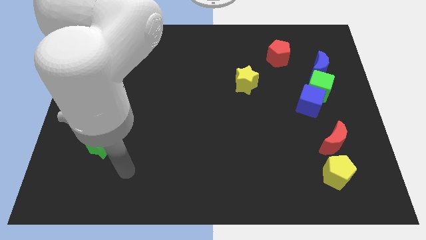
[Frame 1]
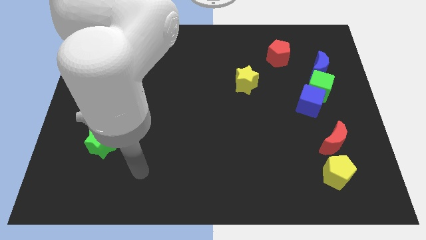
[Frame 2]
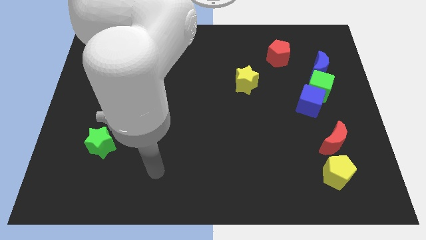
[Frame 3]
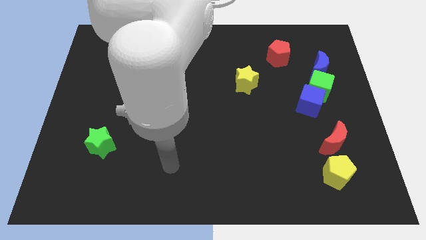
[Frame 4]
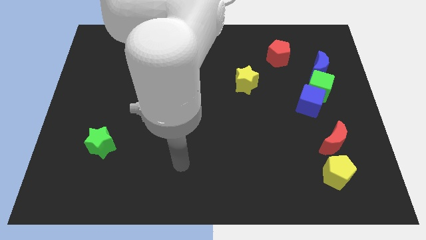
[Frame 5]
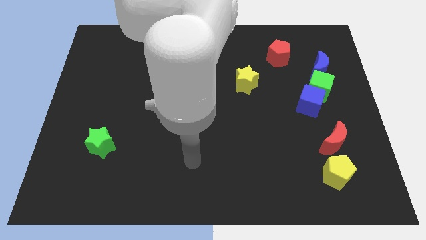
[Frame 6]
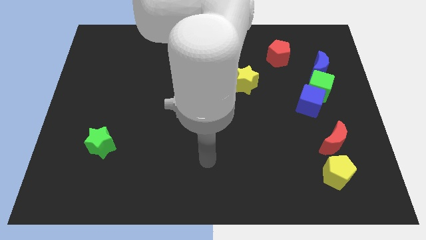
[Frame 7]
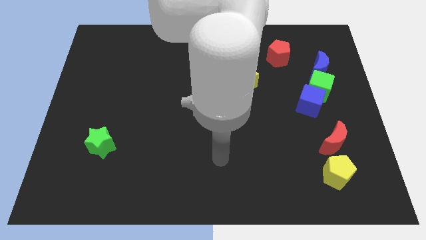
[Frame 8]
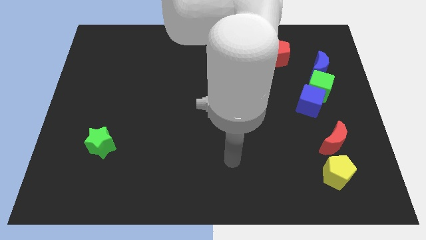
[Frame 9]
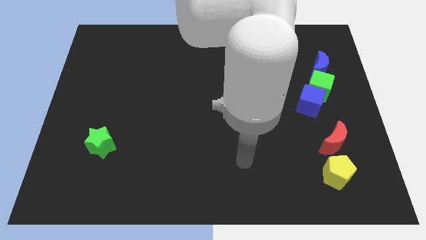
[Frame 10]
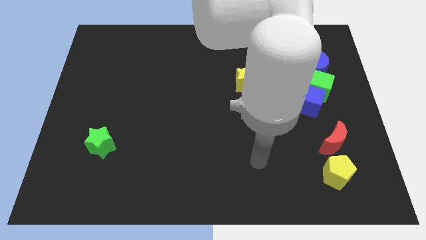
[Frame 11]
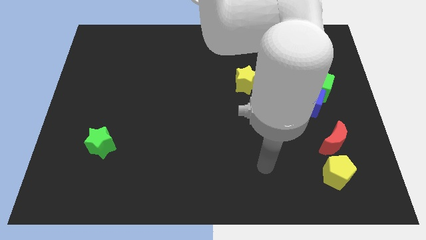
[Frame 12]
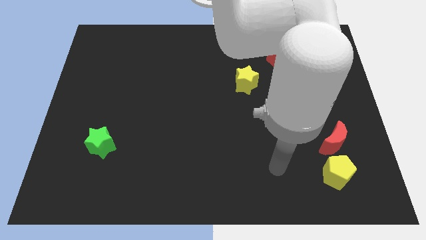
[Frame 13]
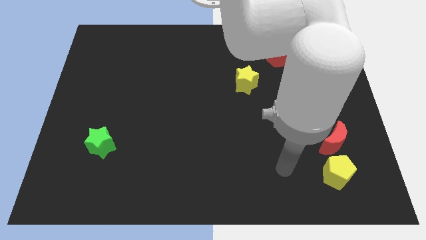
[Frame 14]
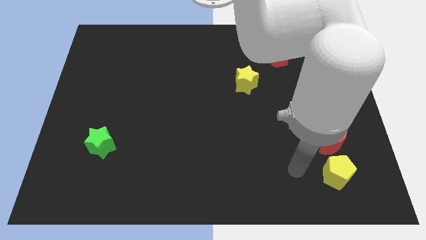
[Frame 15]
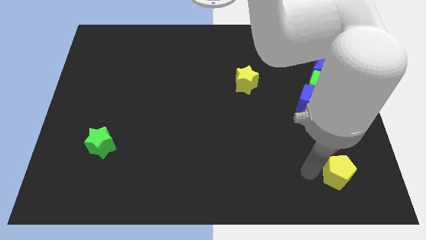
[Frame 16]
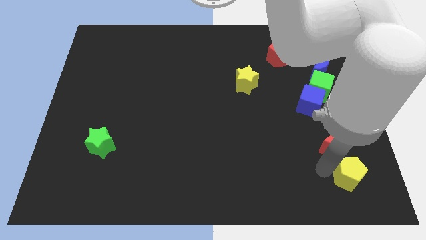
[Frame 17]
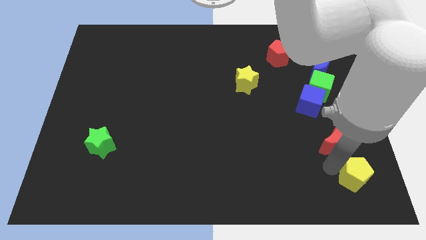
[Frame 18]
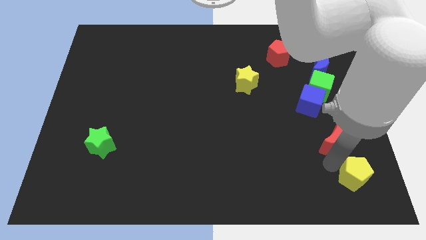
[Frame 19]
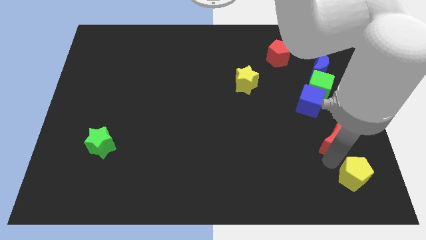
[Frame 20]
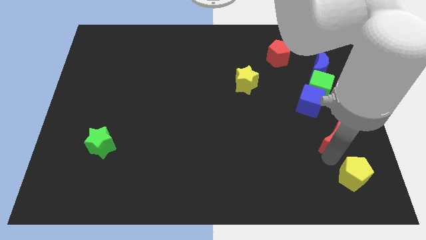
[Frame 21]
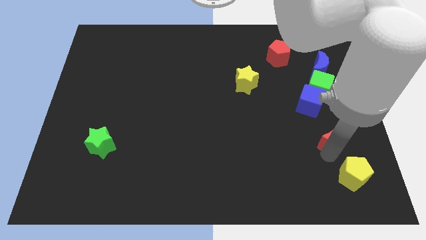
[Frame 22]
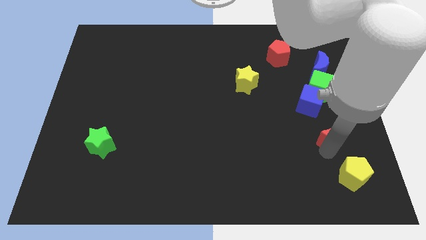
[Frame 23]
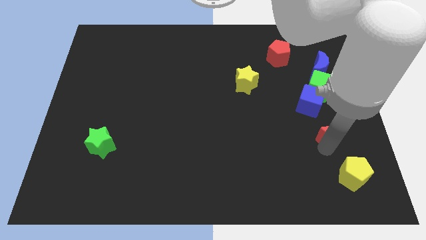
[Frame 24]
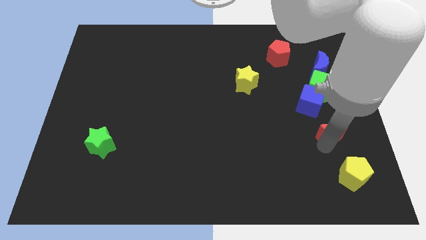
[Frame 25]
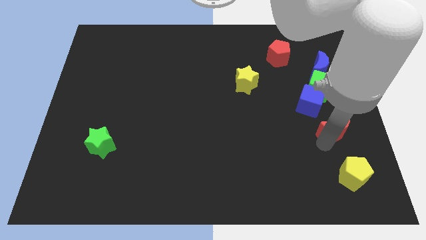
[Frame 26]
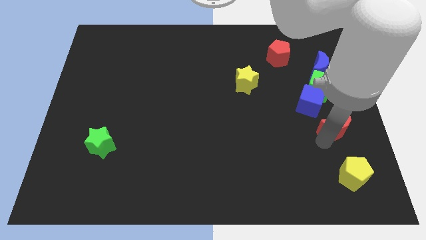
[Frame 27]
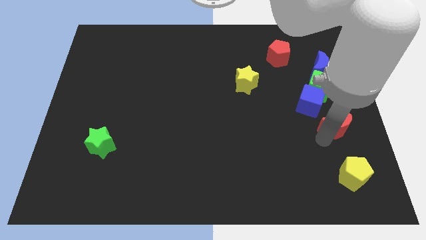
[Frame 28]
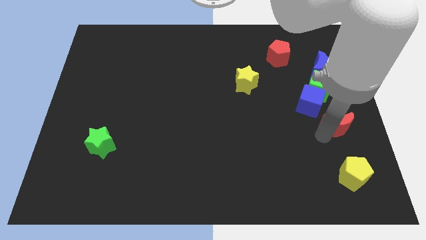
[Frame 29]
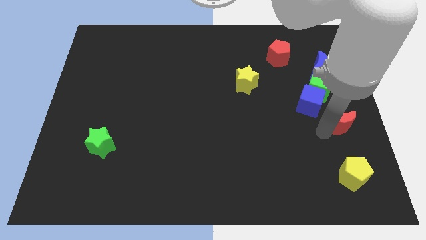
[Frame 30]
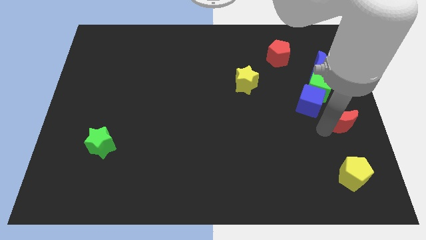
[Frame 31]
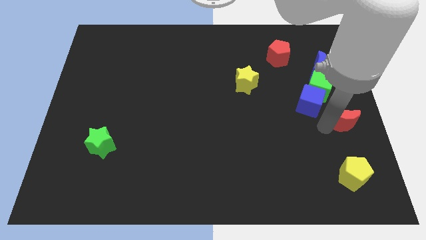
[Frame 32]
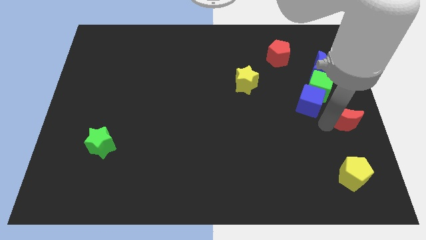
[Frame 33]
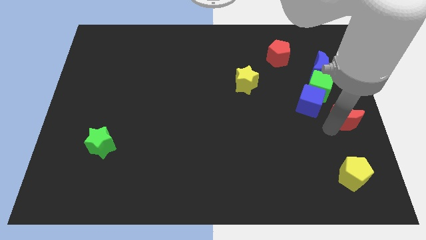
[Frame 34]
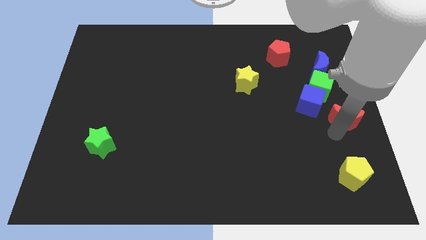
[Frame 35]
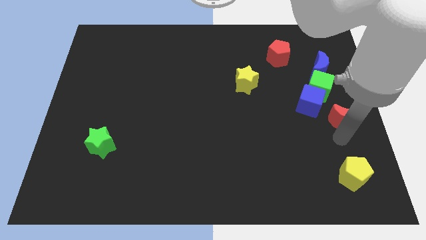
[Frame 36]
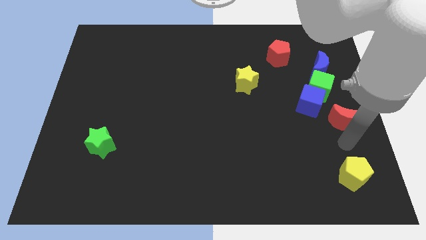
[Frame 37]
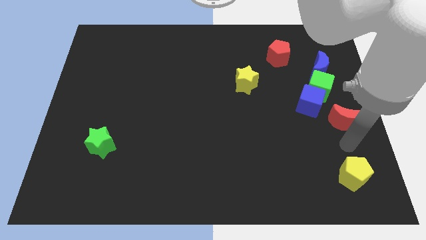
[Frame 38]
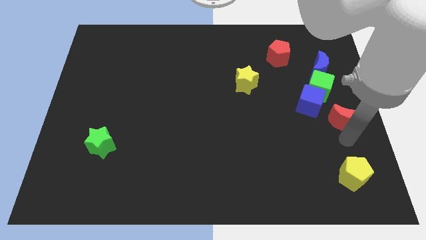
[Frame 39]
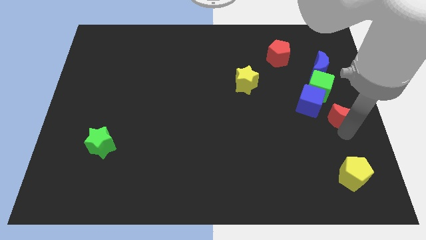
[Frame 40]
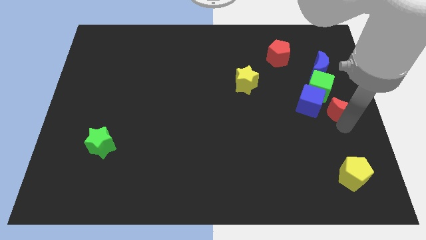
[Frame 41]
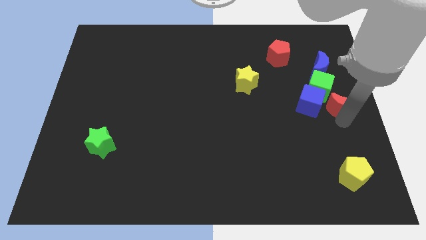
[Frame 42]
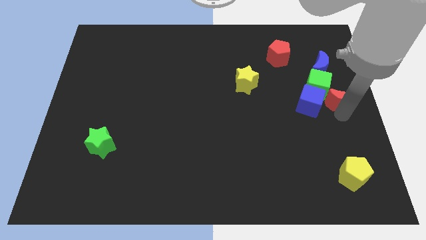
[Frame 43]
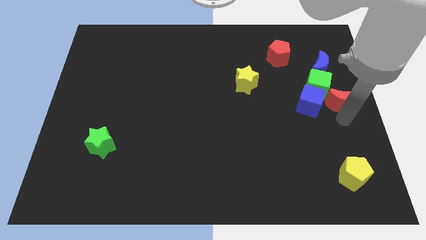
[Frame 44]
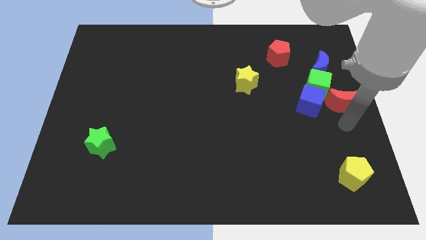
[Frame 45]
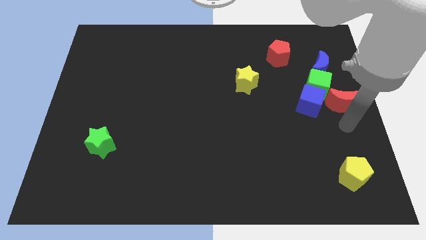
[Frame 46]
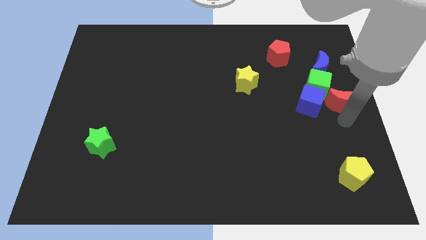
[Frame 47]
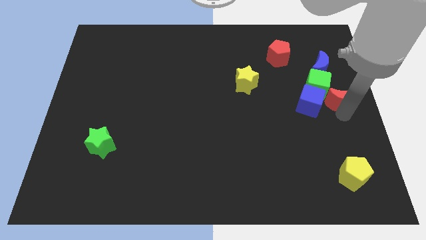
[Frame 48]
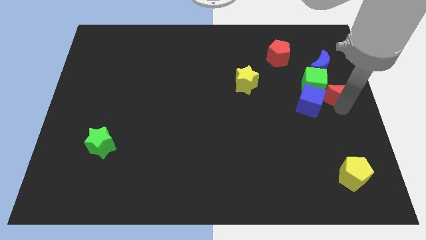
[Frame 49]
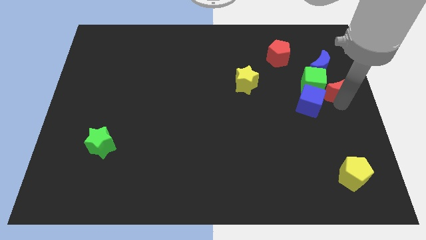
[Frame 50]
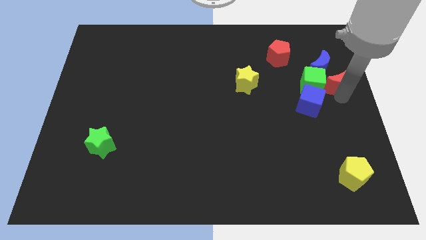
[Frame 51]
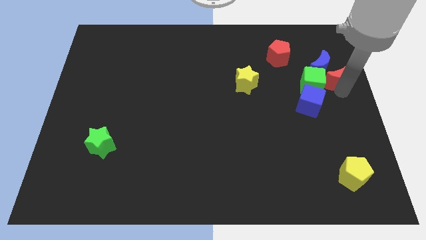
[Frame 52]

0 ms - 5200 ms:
put the red moon towards the blue moon

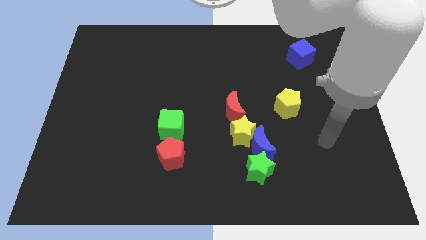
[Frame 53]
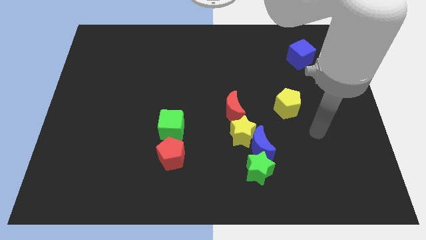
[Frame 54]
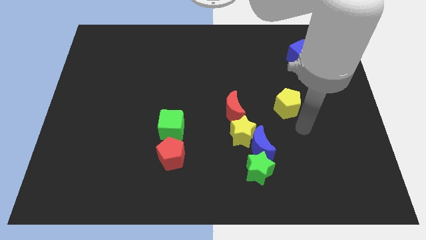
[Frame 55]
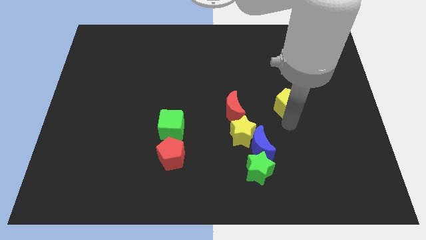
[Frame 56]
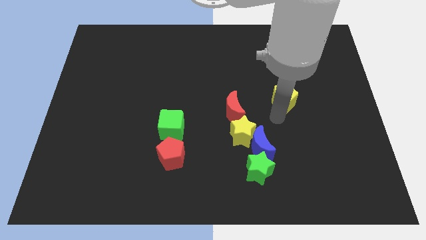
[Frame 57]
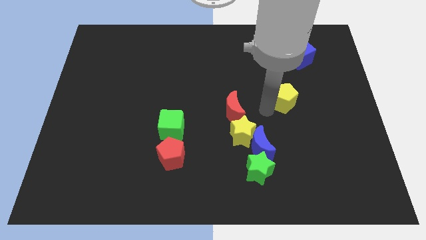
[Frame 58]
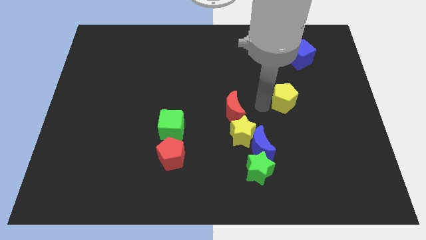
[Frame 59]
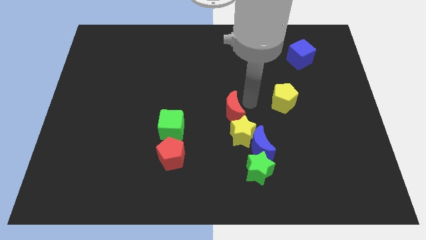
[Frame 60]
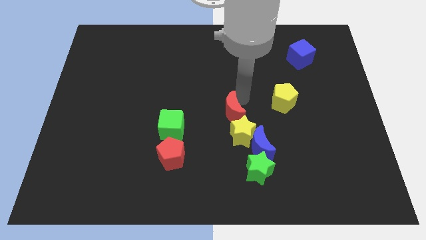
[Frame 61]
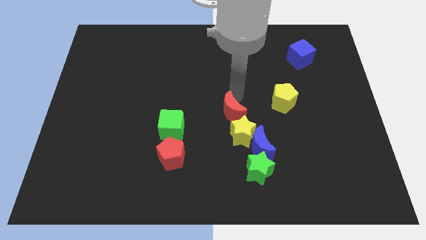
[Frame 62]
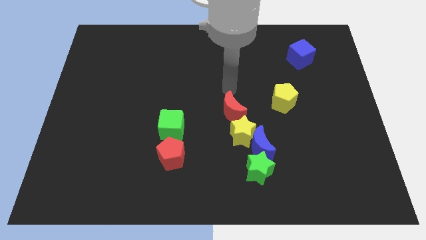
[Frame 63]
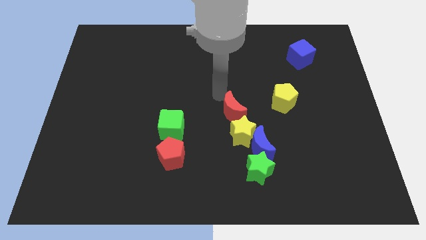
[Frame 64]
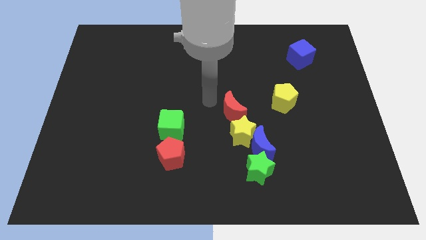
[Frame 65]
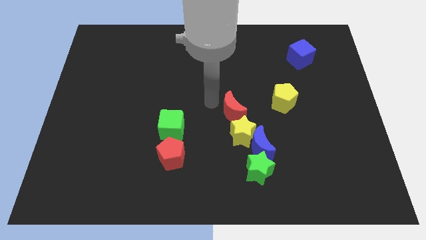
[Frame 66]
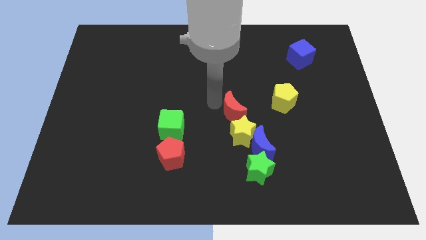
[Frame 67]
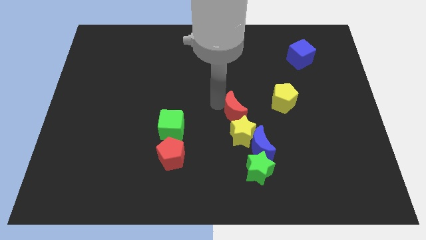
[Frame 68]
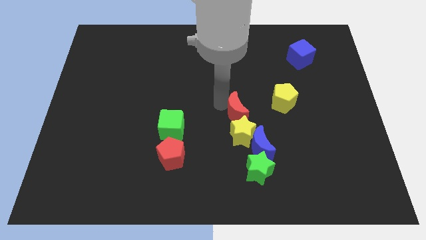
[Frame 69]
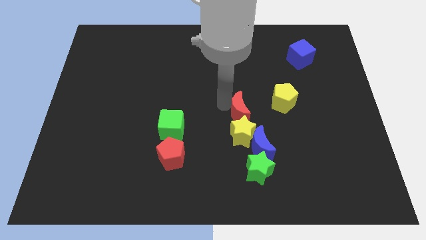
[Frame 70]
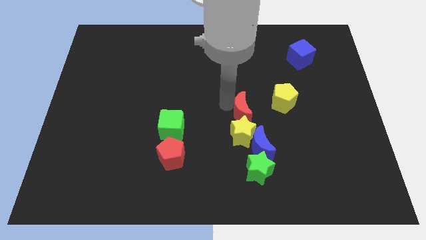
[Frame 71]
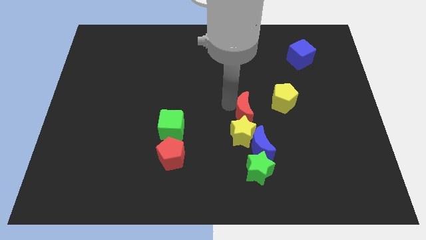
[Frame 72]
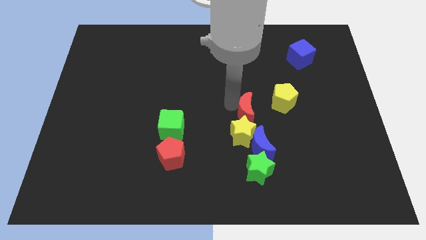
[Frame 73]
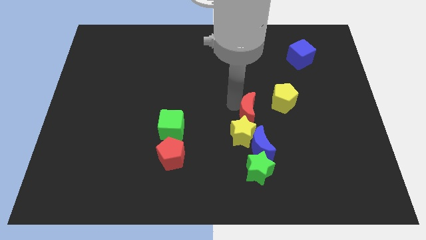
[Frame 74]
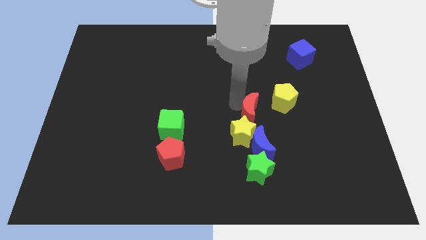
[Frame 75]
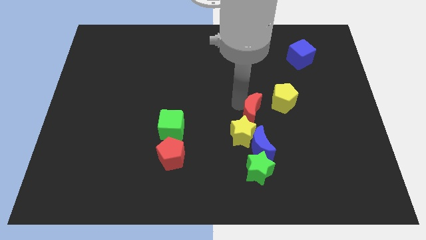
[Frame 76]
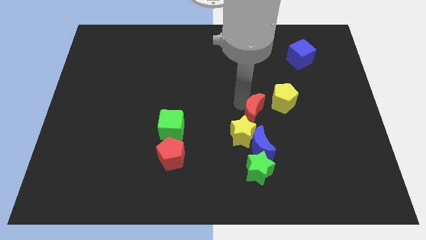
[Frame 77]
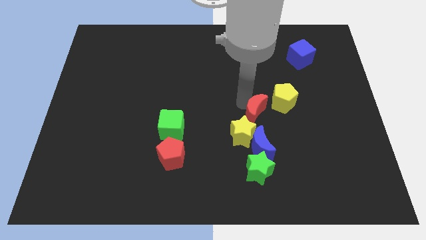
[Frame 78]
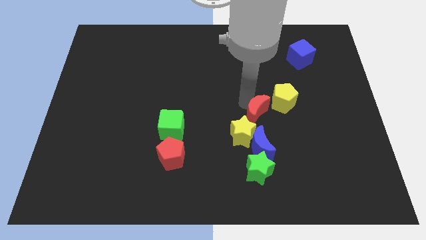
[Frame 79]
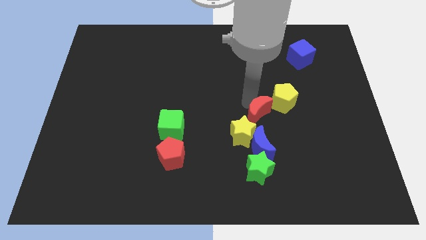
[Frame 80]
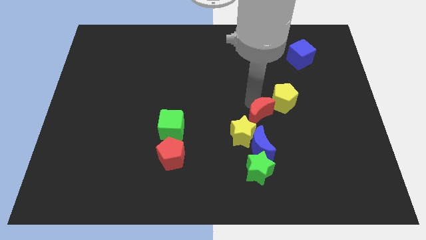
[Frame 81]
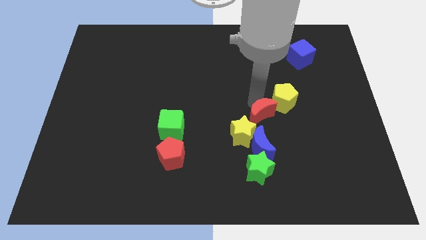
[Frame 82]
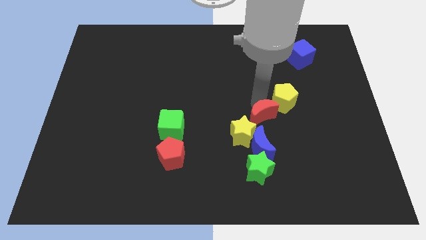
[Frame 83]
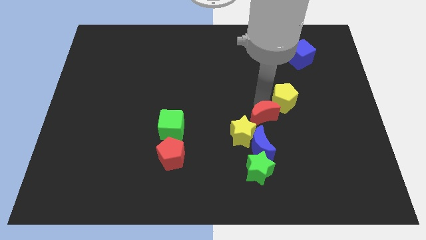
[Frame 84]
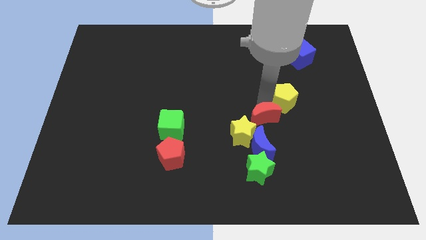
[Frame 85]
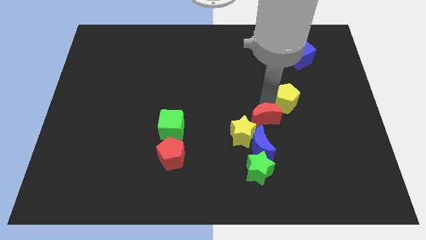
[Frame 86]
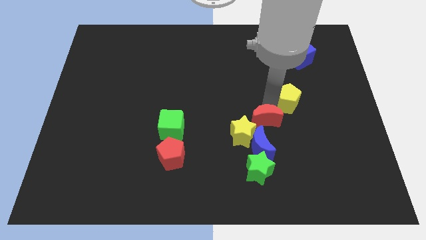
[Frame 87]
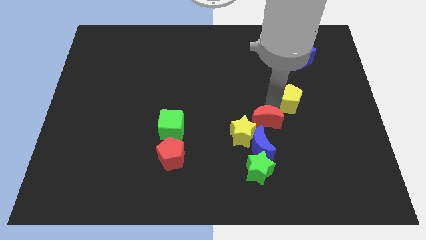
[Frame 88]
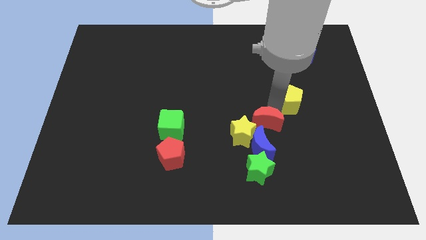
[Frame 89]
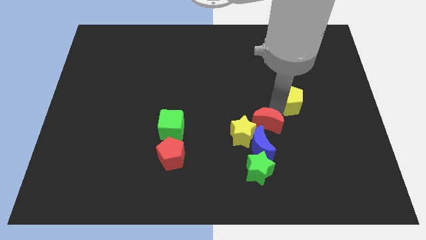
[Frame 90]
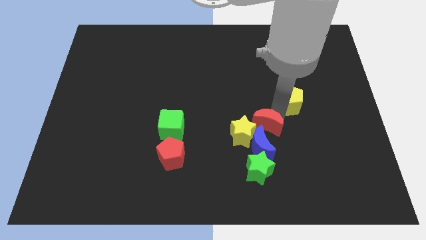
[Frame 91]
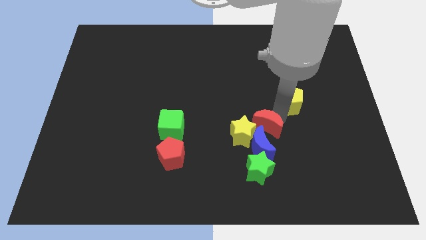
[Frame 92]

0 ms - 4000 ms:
push the red moon to the blue moon
